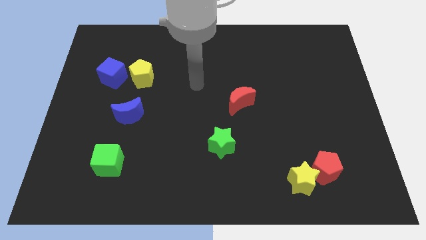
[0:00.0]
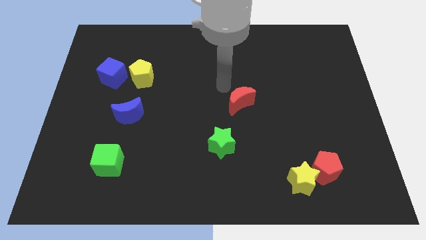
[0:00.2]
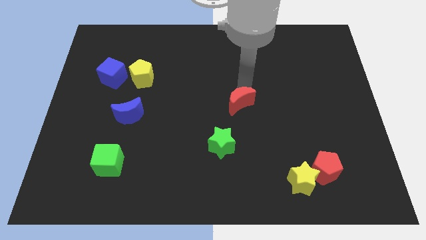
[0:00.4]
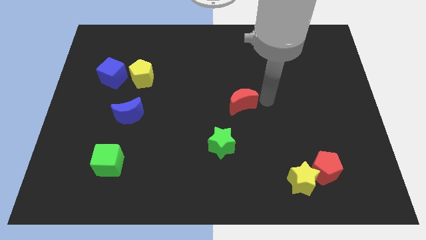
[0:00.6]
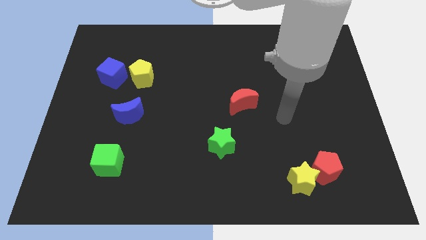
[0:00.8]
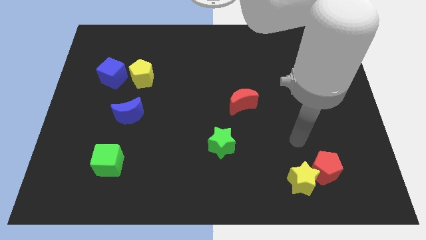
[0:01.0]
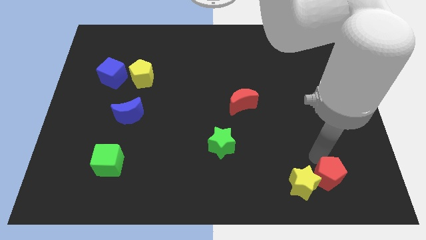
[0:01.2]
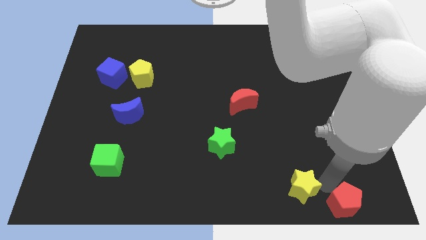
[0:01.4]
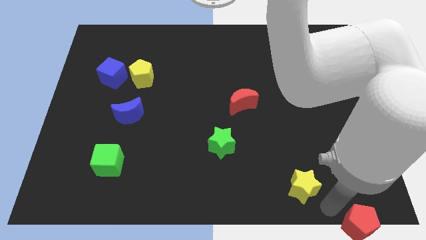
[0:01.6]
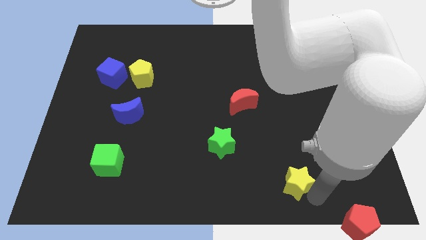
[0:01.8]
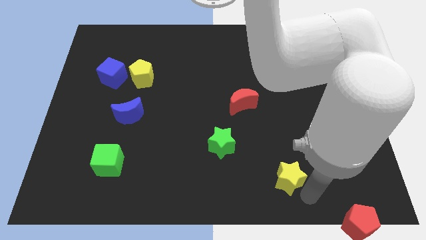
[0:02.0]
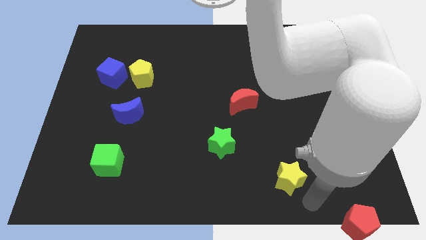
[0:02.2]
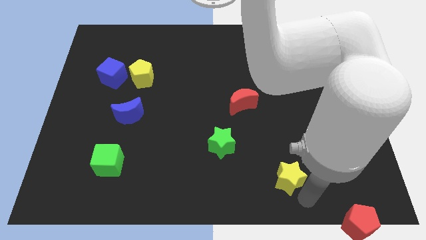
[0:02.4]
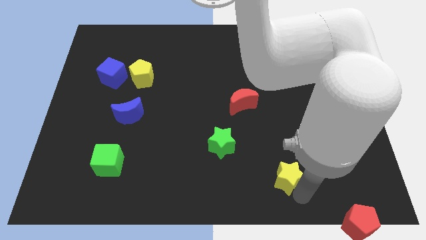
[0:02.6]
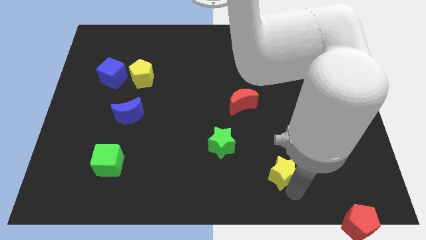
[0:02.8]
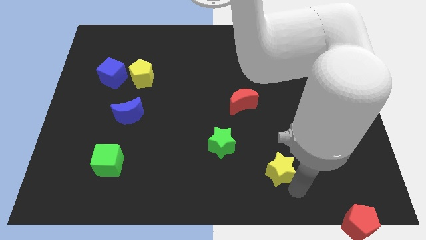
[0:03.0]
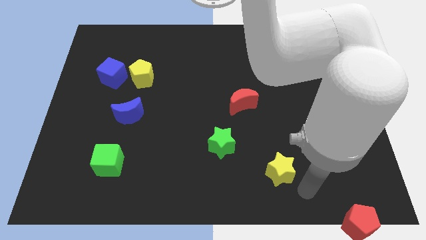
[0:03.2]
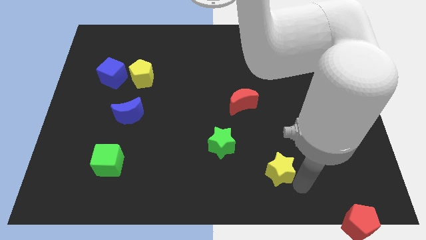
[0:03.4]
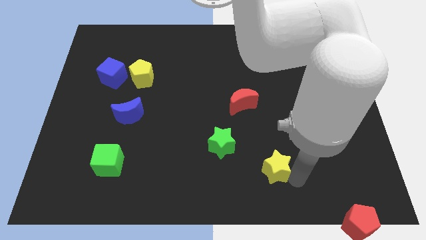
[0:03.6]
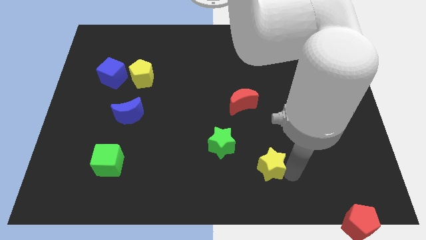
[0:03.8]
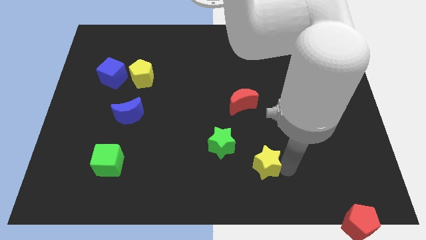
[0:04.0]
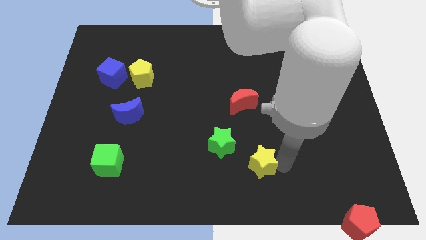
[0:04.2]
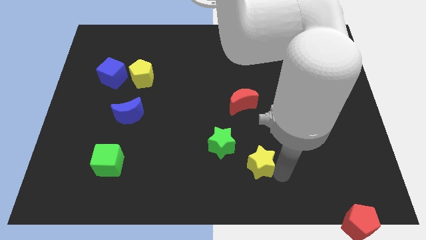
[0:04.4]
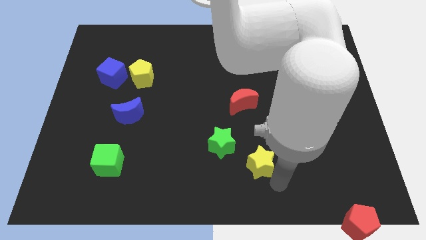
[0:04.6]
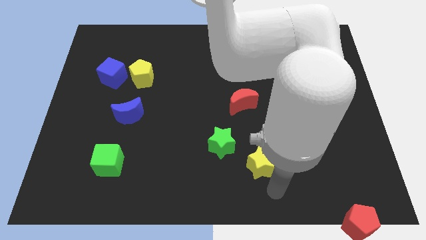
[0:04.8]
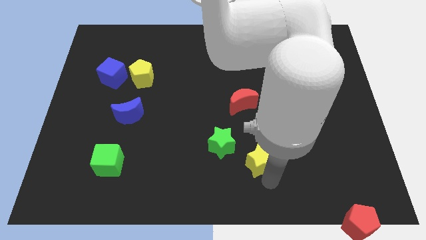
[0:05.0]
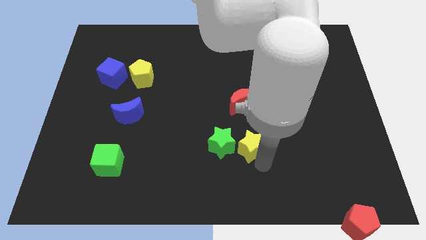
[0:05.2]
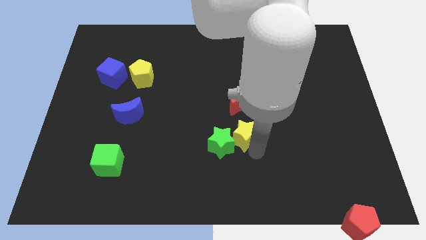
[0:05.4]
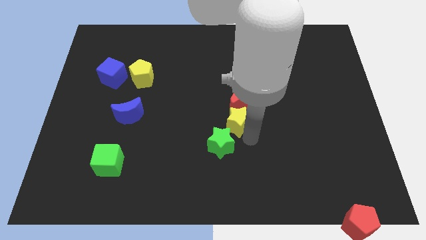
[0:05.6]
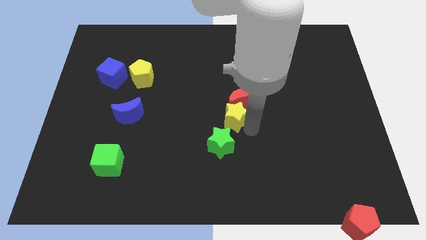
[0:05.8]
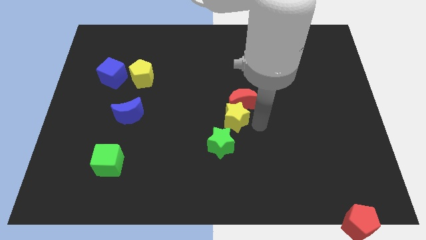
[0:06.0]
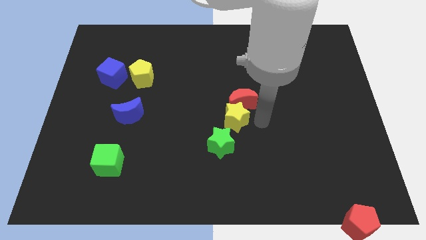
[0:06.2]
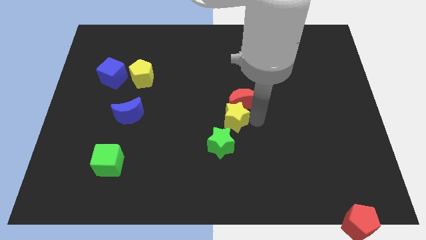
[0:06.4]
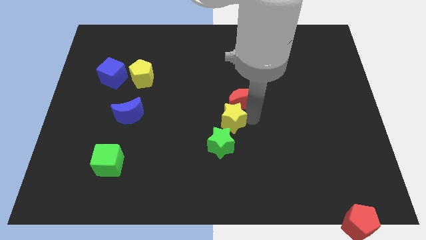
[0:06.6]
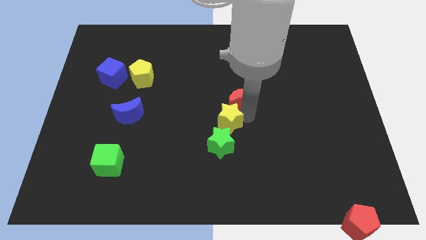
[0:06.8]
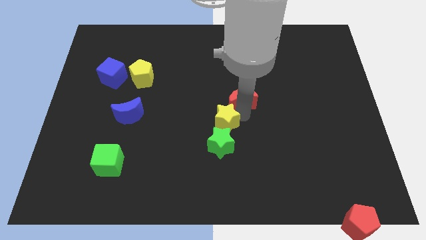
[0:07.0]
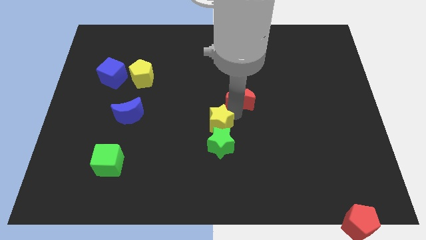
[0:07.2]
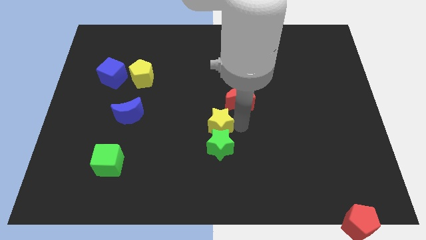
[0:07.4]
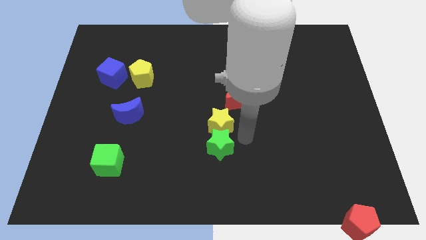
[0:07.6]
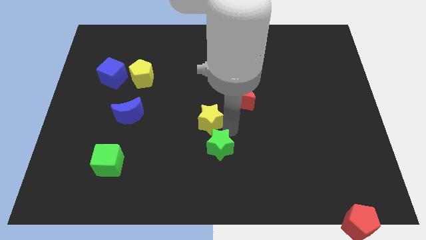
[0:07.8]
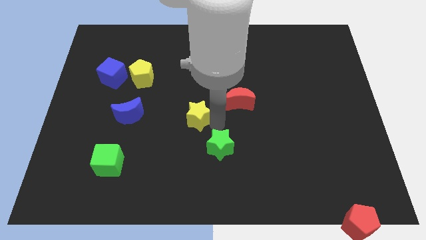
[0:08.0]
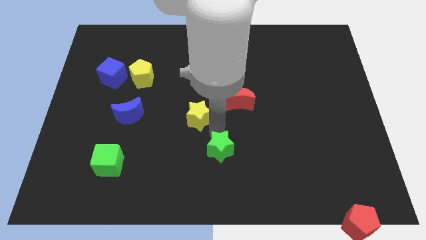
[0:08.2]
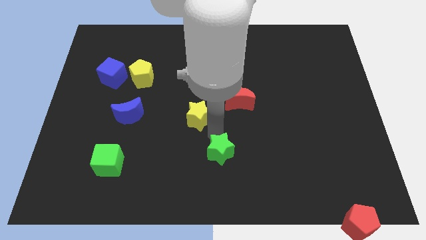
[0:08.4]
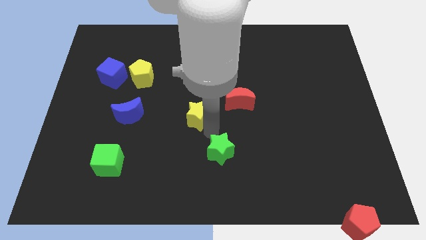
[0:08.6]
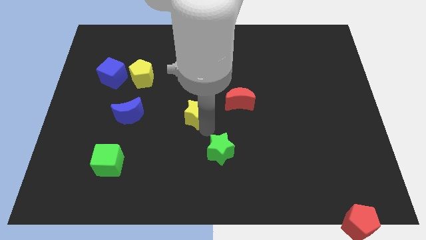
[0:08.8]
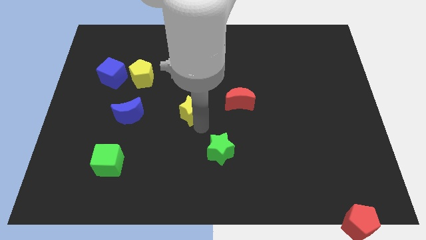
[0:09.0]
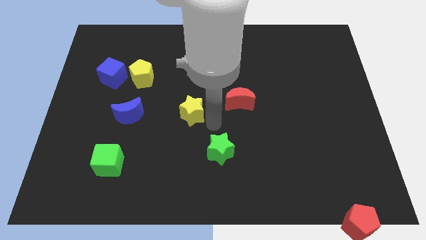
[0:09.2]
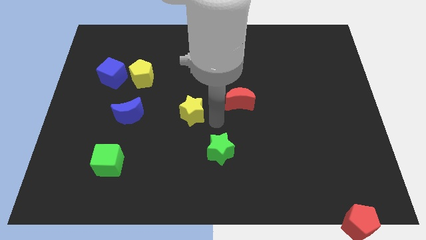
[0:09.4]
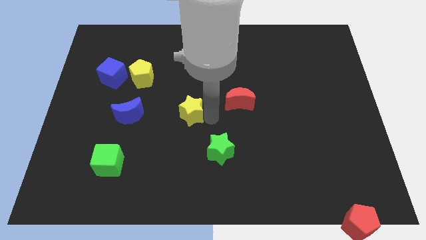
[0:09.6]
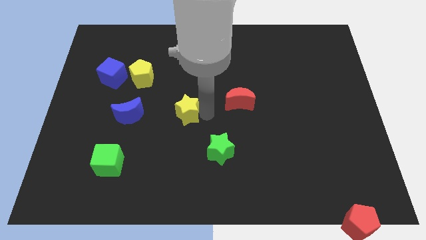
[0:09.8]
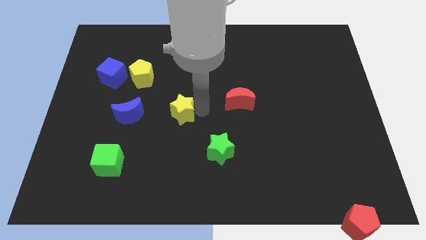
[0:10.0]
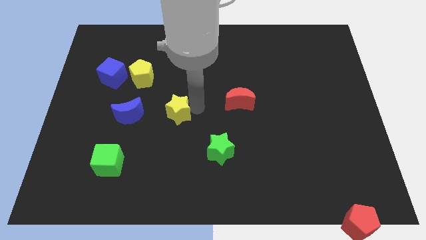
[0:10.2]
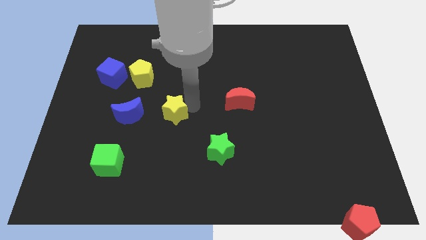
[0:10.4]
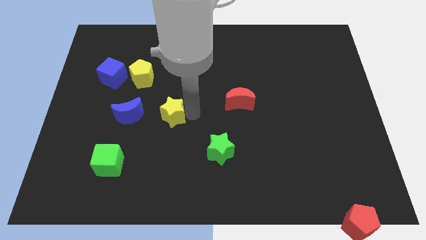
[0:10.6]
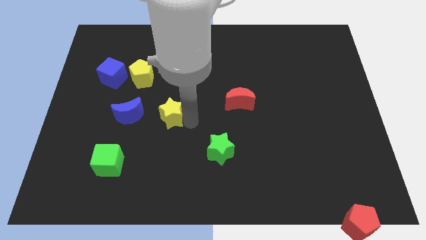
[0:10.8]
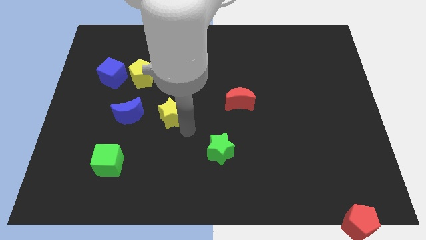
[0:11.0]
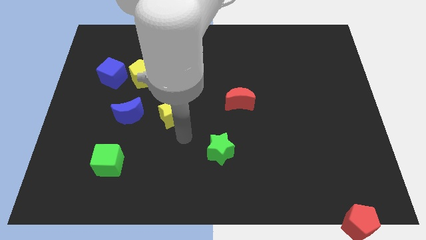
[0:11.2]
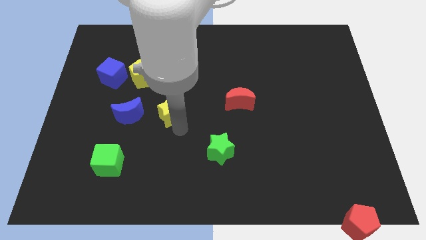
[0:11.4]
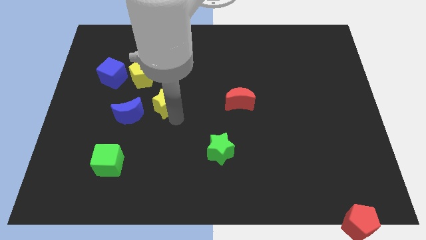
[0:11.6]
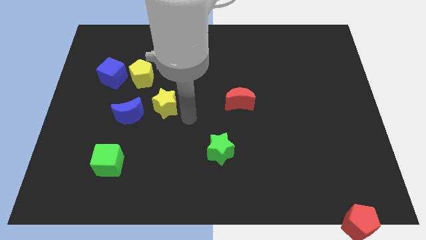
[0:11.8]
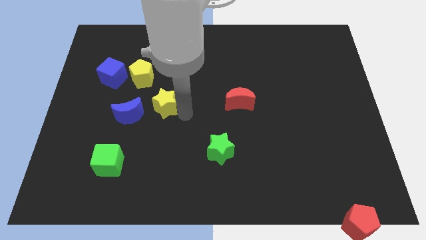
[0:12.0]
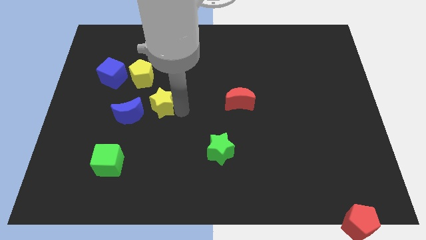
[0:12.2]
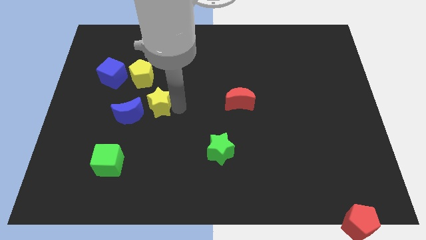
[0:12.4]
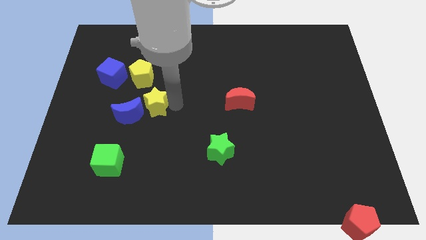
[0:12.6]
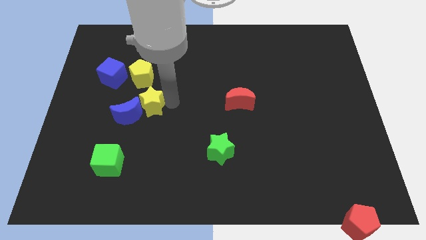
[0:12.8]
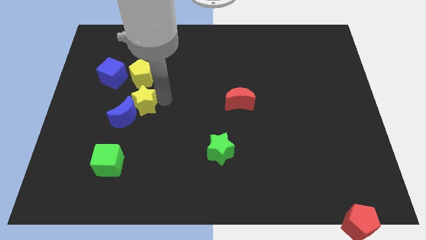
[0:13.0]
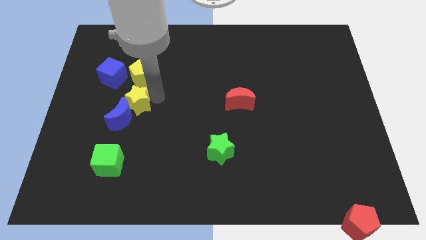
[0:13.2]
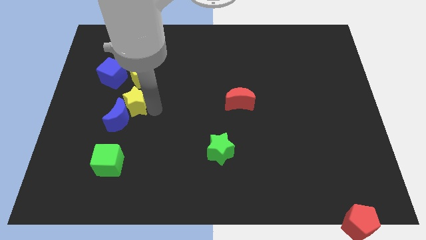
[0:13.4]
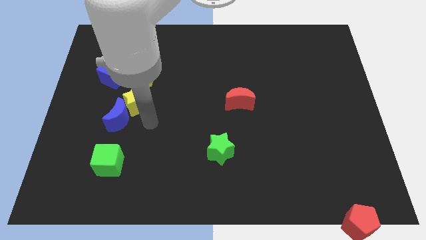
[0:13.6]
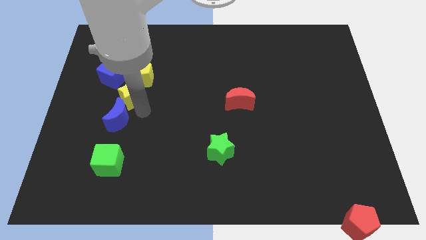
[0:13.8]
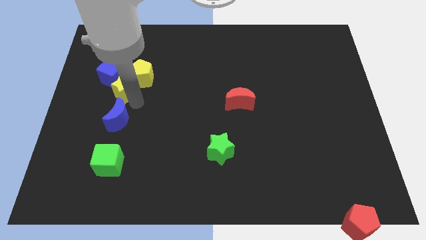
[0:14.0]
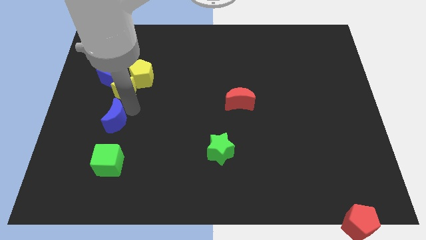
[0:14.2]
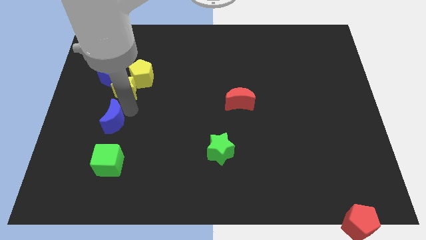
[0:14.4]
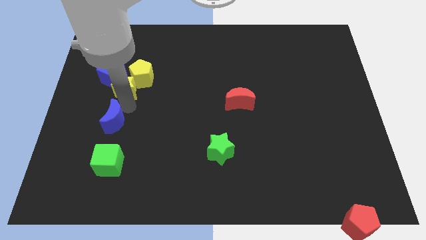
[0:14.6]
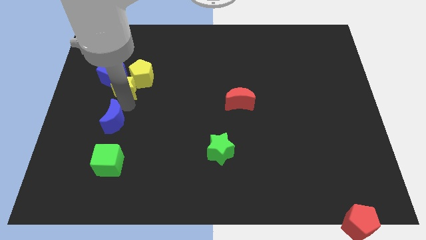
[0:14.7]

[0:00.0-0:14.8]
push the yellow star close to the blue cube
